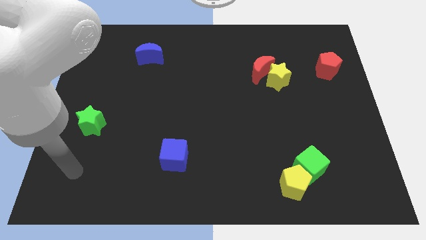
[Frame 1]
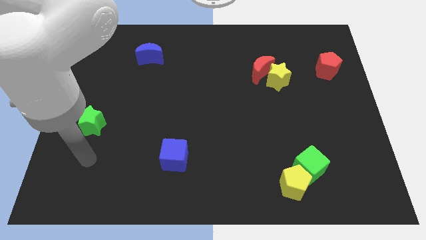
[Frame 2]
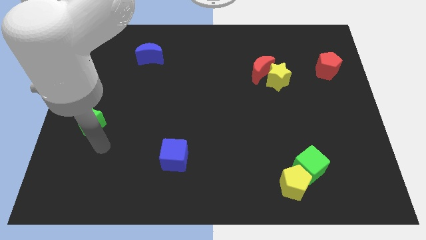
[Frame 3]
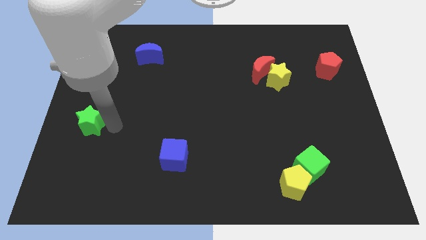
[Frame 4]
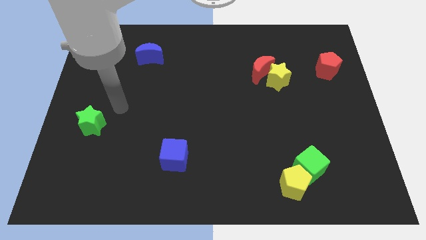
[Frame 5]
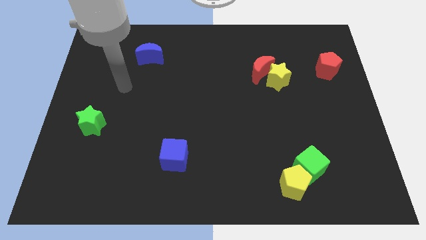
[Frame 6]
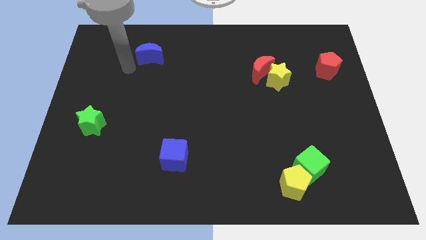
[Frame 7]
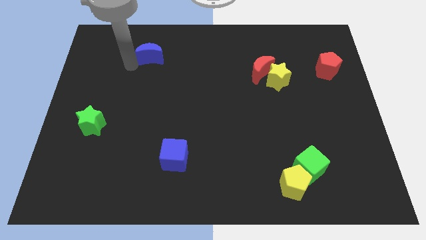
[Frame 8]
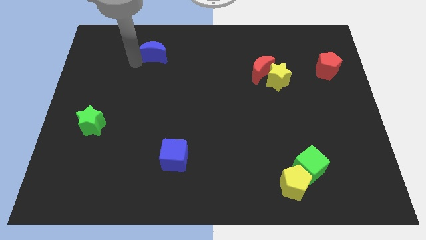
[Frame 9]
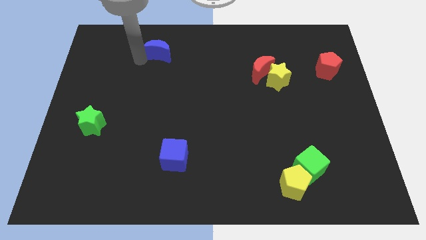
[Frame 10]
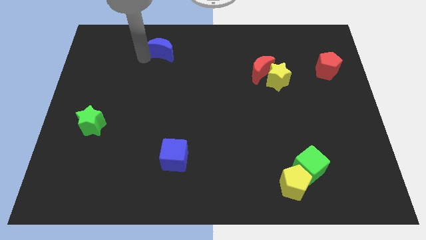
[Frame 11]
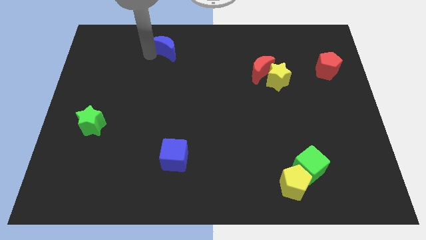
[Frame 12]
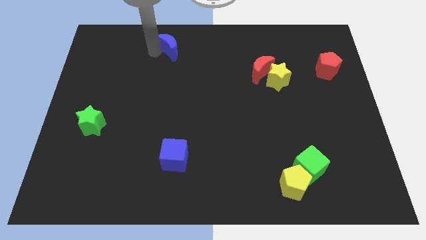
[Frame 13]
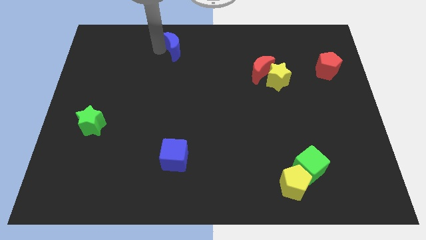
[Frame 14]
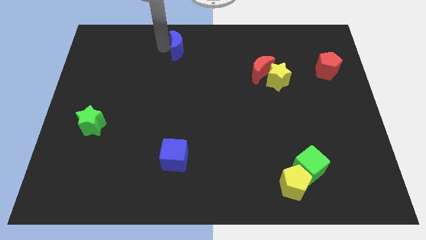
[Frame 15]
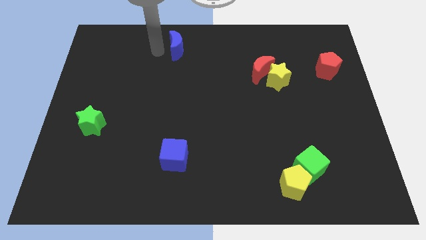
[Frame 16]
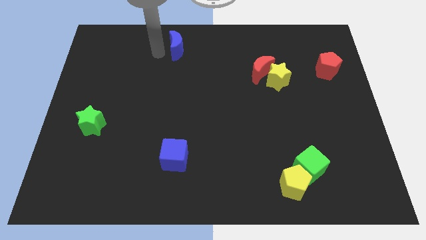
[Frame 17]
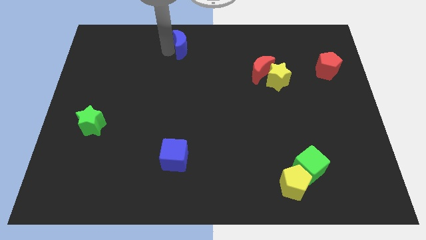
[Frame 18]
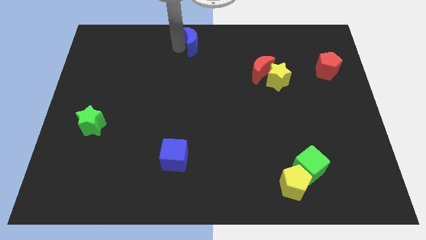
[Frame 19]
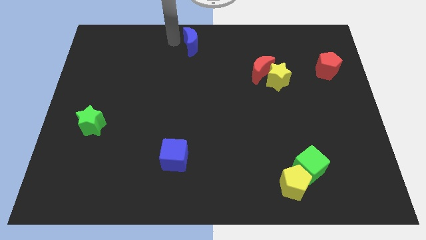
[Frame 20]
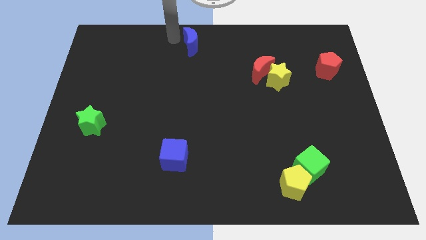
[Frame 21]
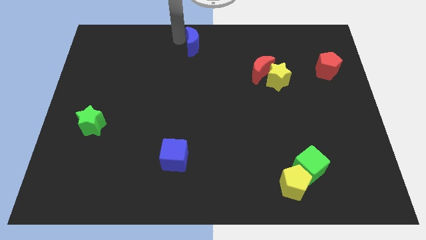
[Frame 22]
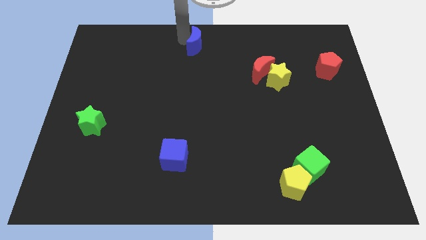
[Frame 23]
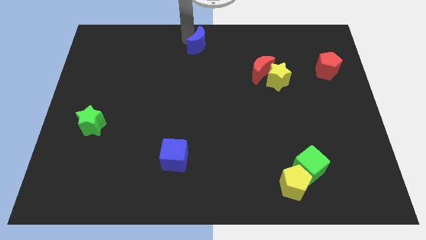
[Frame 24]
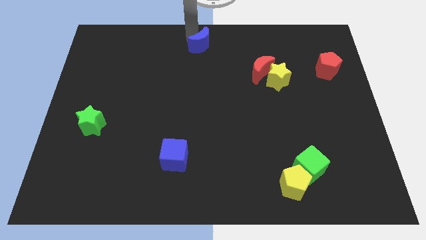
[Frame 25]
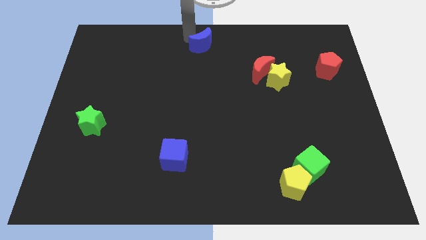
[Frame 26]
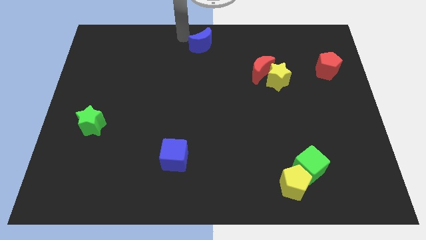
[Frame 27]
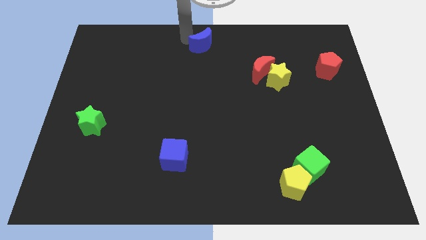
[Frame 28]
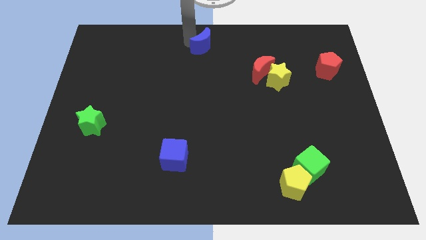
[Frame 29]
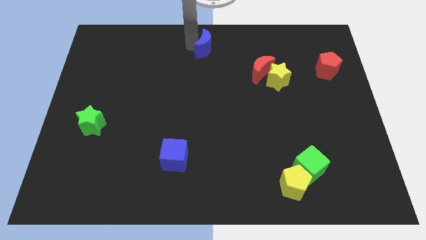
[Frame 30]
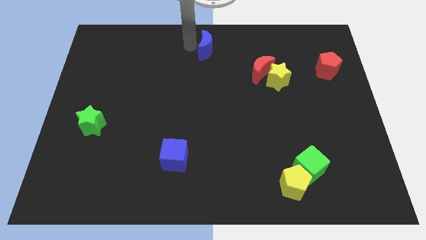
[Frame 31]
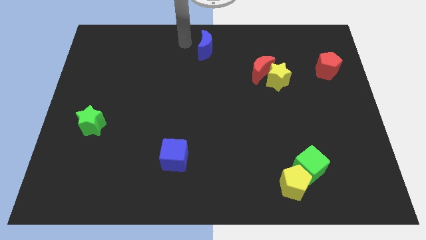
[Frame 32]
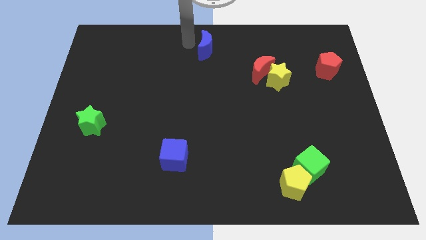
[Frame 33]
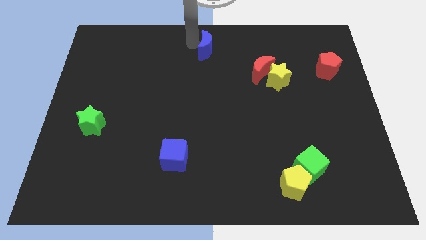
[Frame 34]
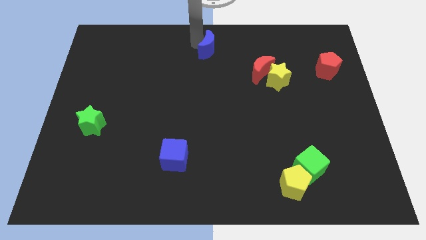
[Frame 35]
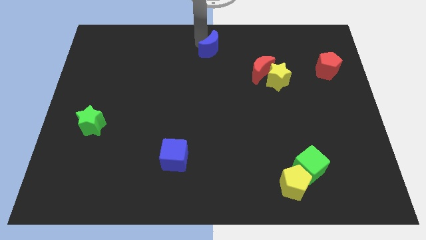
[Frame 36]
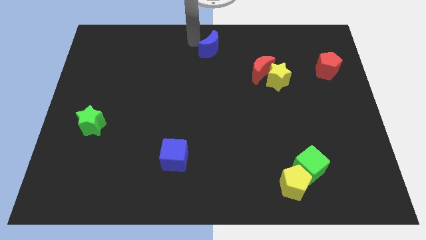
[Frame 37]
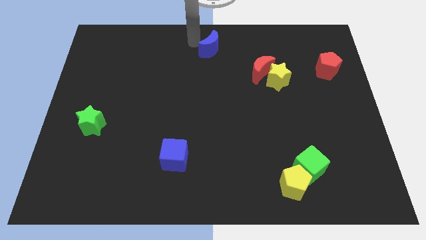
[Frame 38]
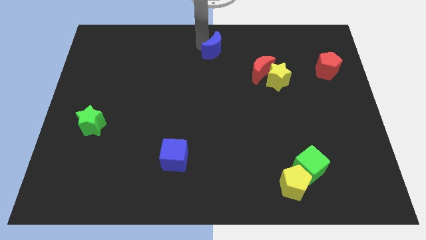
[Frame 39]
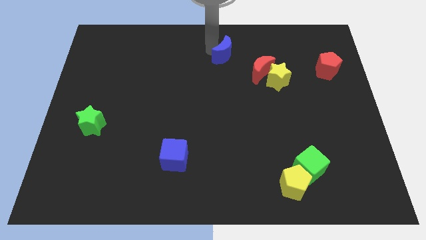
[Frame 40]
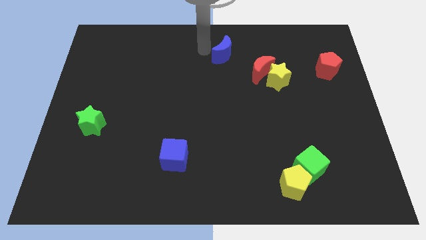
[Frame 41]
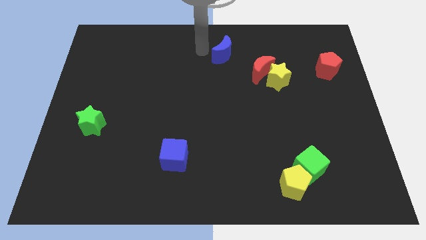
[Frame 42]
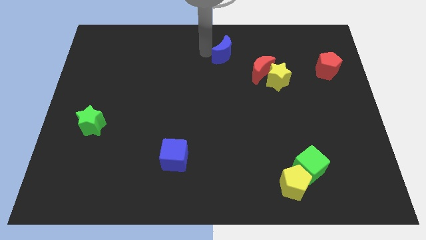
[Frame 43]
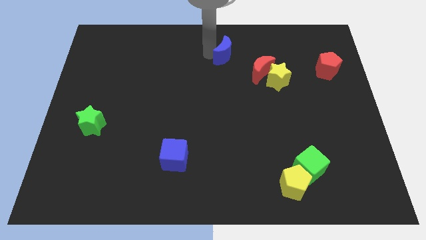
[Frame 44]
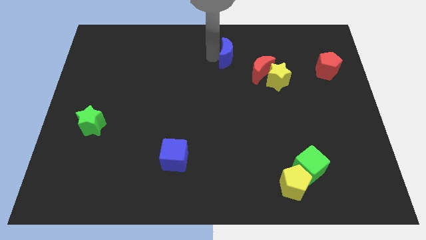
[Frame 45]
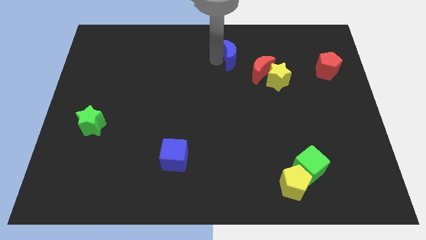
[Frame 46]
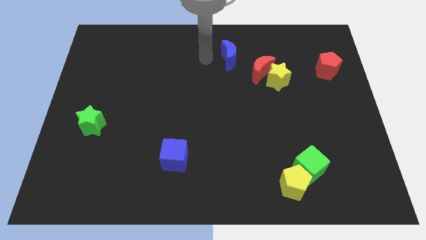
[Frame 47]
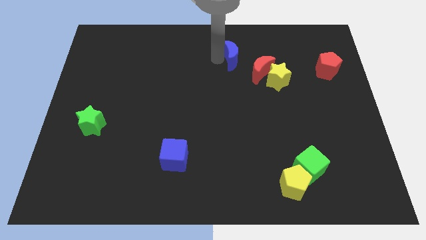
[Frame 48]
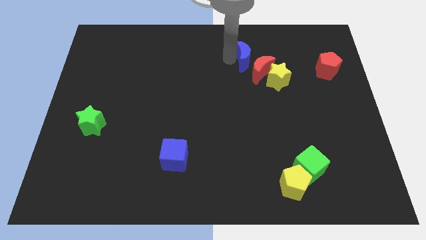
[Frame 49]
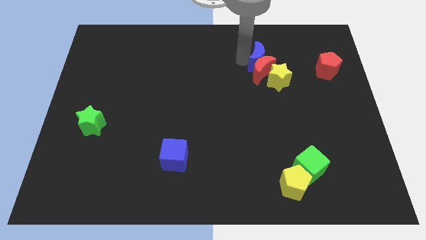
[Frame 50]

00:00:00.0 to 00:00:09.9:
move the blue moon diagonally up and to the right of the red moon

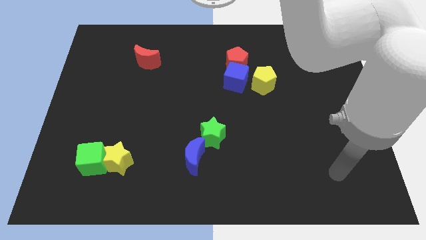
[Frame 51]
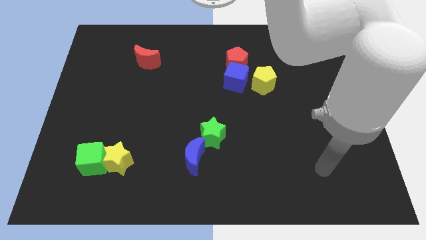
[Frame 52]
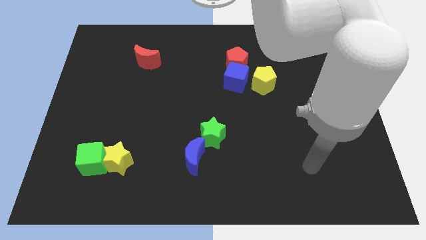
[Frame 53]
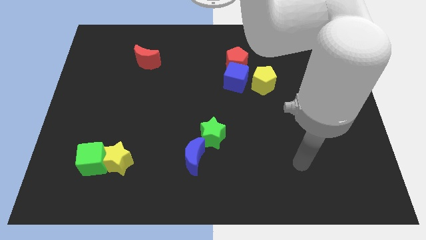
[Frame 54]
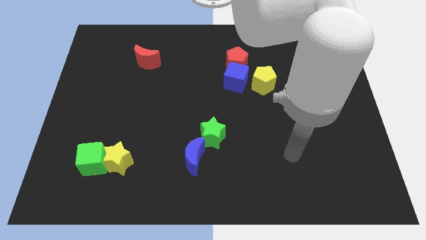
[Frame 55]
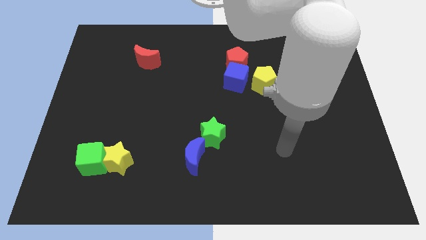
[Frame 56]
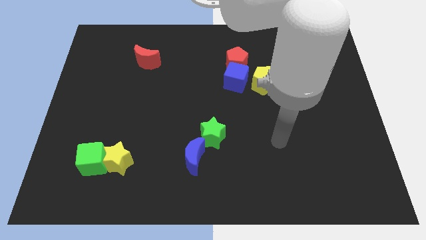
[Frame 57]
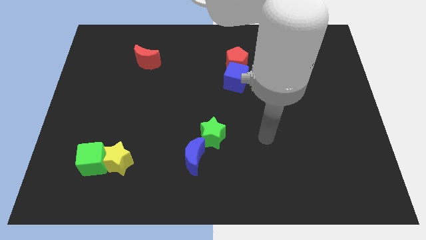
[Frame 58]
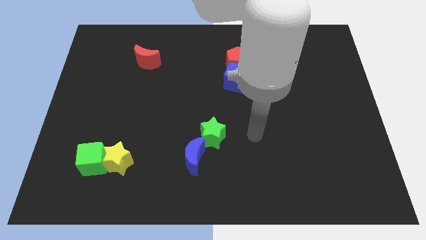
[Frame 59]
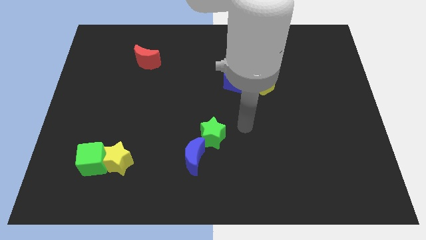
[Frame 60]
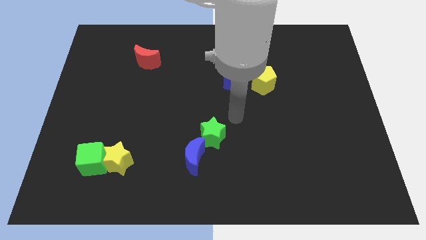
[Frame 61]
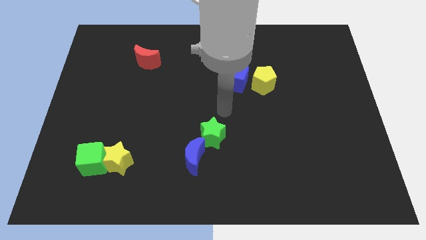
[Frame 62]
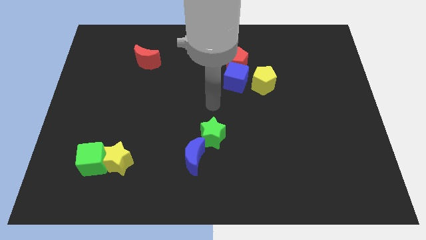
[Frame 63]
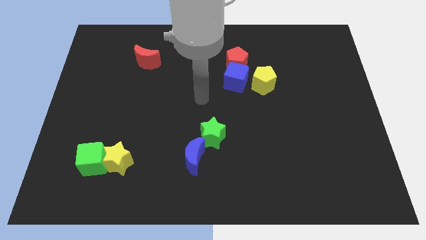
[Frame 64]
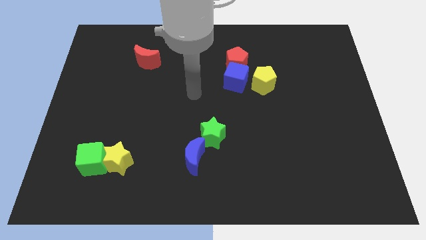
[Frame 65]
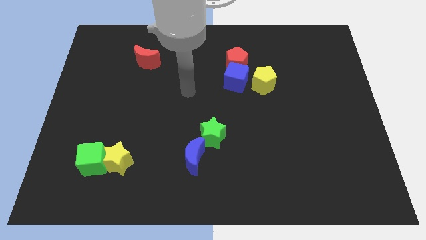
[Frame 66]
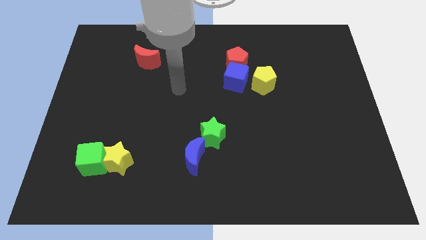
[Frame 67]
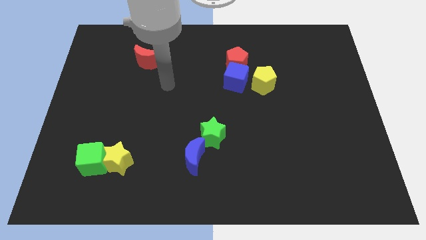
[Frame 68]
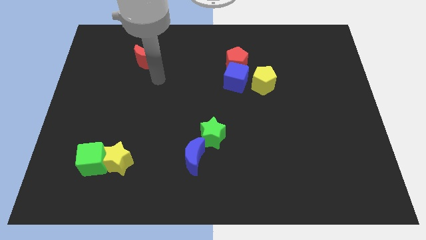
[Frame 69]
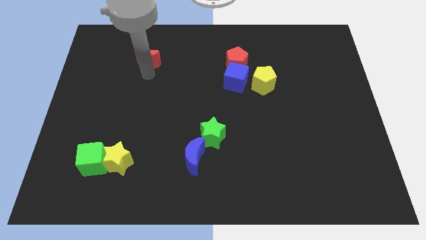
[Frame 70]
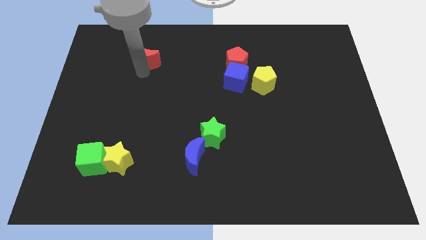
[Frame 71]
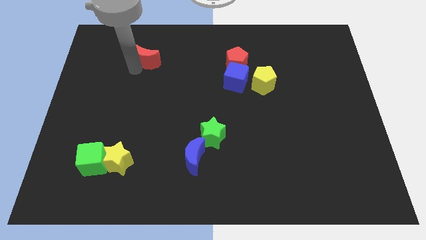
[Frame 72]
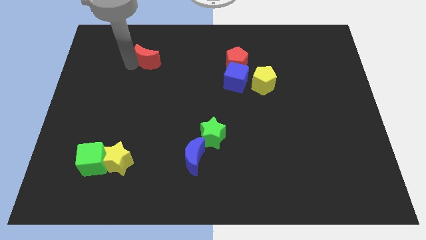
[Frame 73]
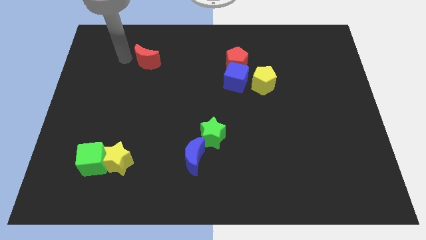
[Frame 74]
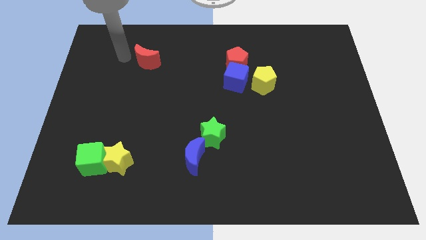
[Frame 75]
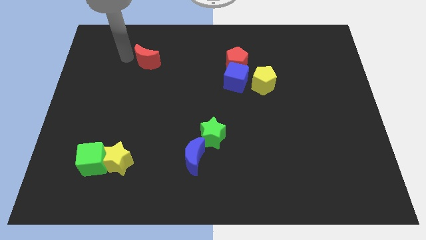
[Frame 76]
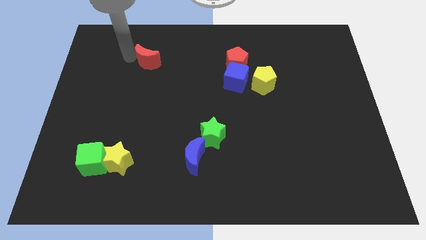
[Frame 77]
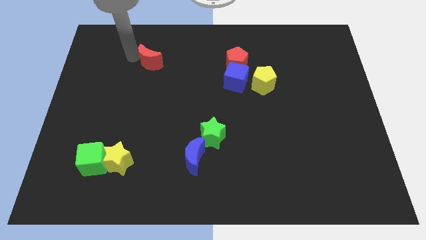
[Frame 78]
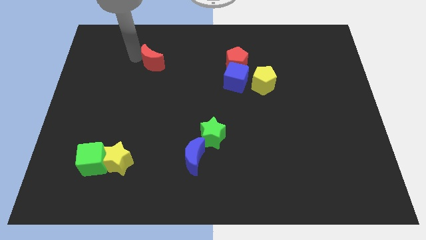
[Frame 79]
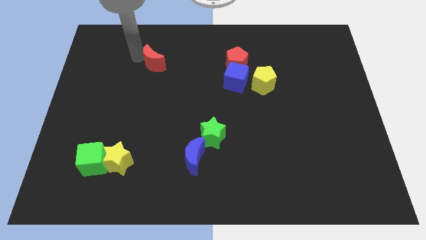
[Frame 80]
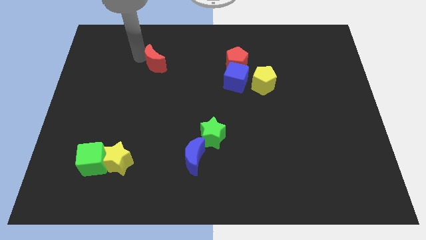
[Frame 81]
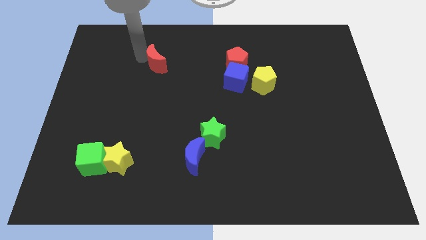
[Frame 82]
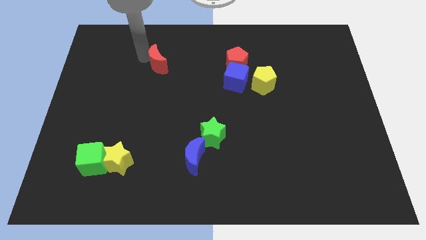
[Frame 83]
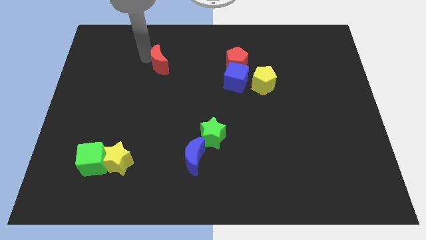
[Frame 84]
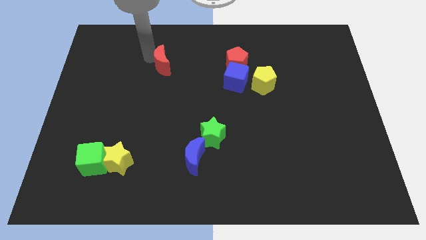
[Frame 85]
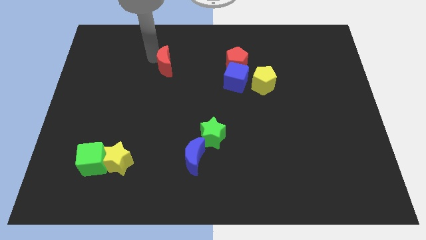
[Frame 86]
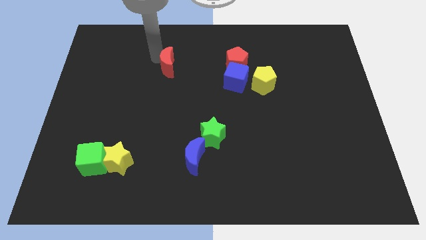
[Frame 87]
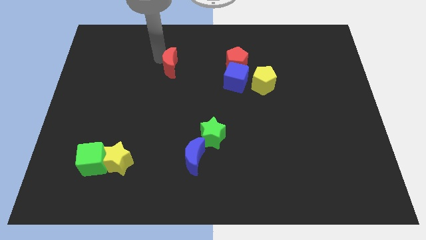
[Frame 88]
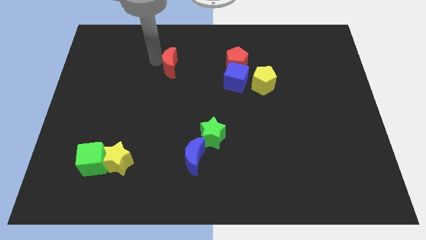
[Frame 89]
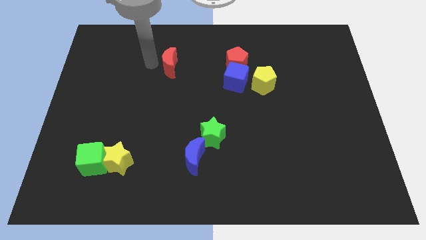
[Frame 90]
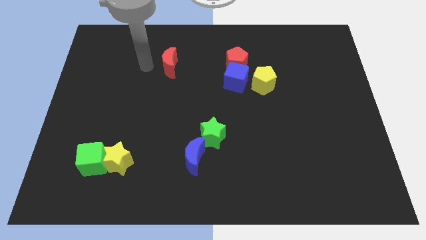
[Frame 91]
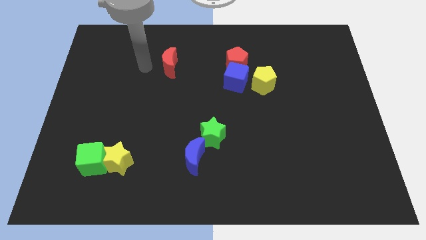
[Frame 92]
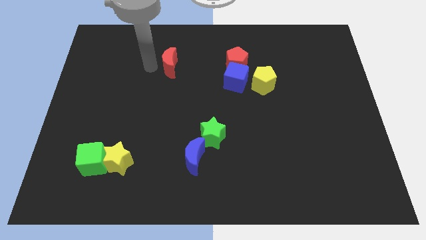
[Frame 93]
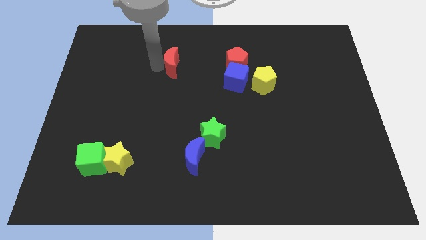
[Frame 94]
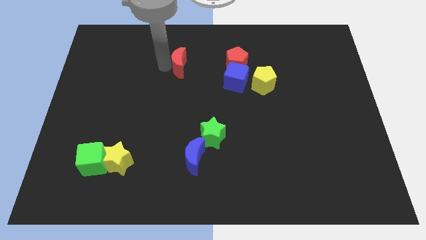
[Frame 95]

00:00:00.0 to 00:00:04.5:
move the red moon to the left of the red pentagon
